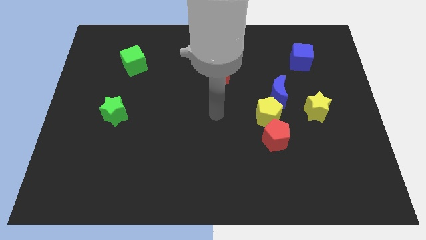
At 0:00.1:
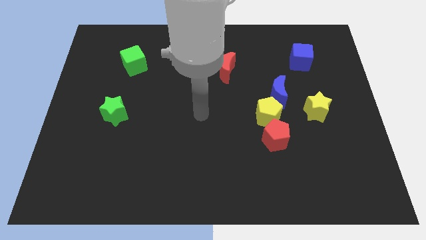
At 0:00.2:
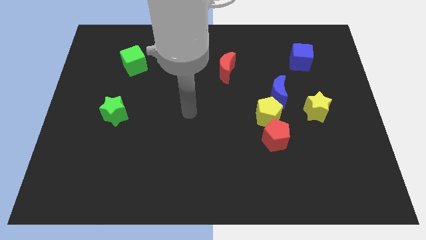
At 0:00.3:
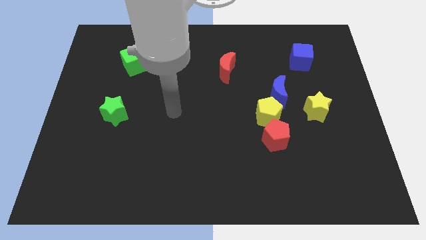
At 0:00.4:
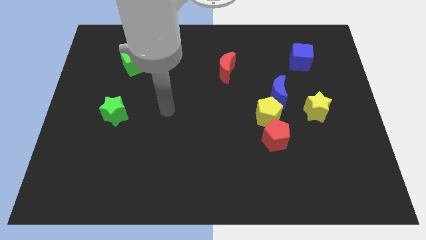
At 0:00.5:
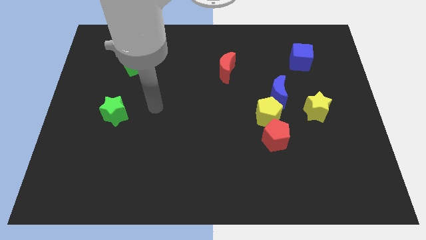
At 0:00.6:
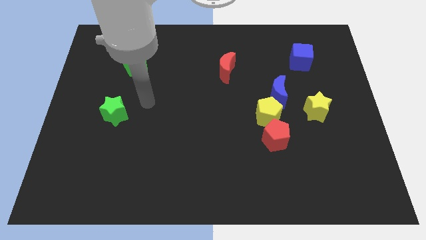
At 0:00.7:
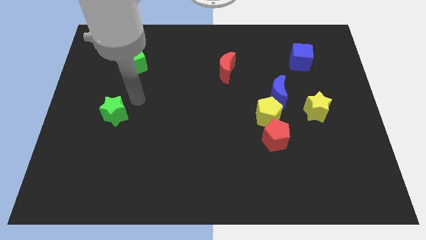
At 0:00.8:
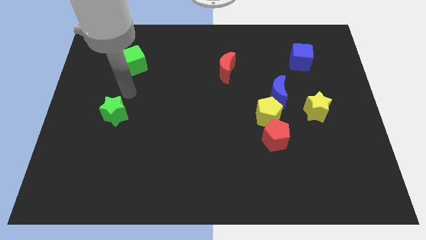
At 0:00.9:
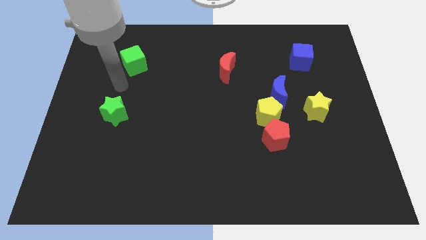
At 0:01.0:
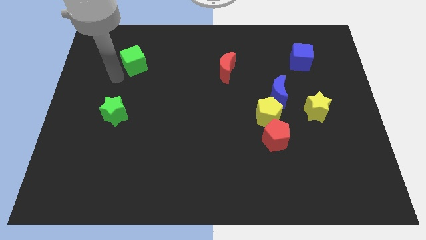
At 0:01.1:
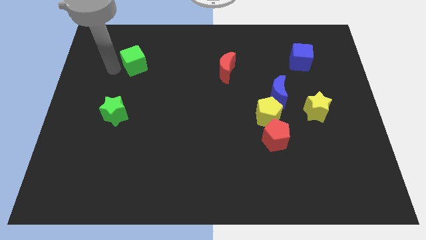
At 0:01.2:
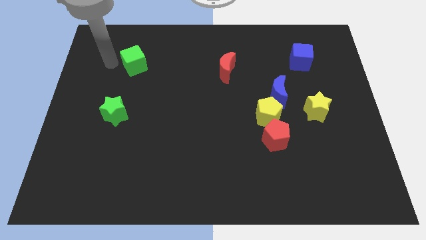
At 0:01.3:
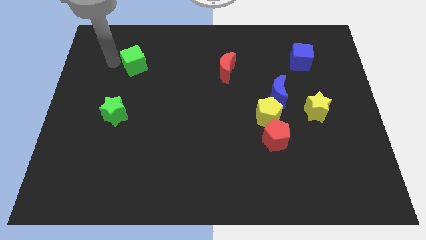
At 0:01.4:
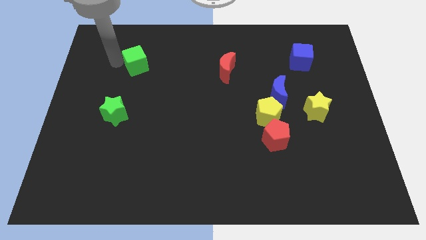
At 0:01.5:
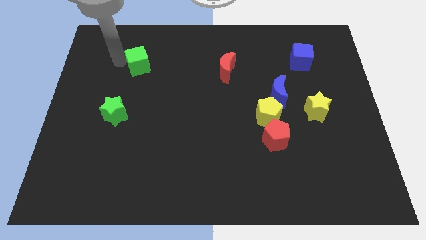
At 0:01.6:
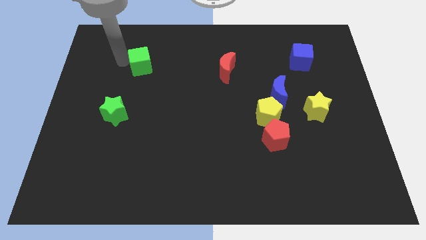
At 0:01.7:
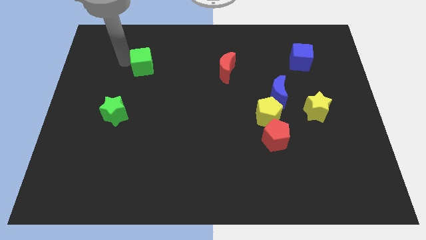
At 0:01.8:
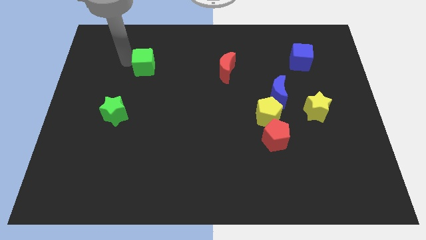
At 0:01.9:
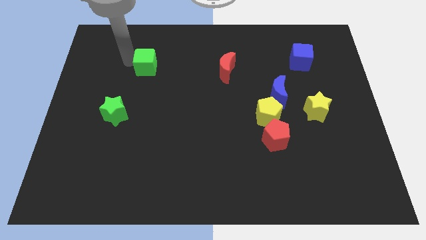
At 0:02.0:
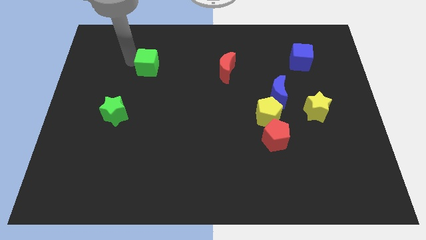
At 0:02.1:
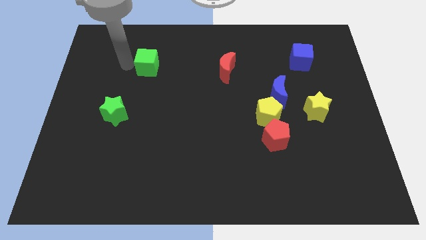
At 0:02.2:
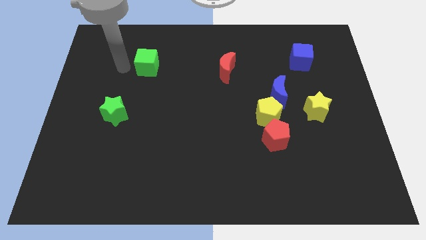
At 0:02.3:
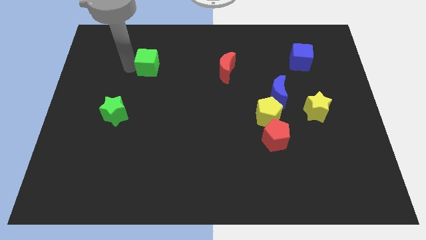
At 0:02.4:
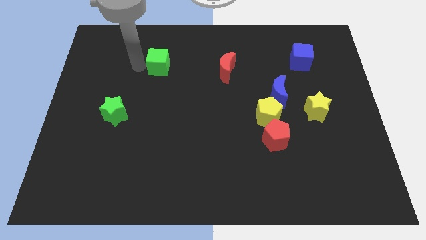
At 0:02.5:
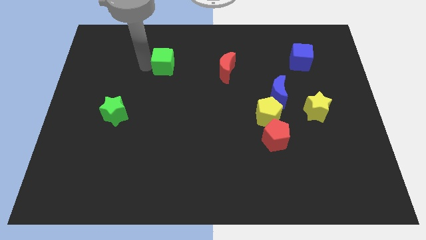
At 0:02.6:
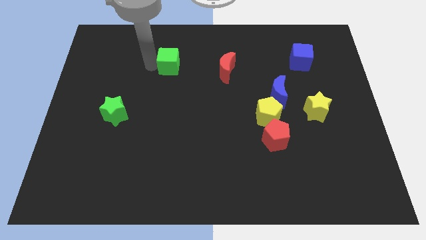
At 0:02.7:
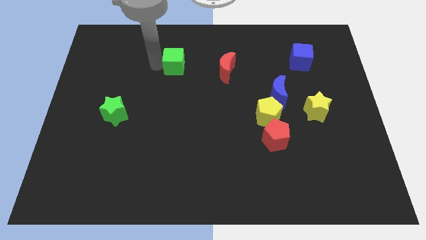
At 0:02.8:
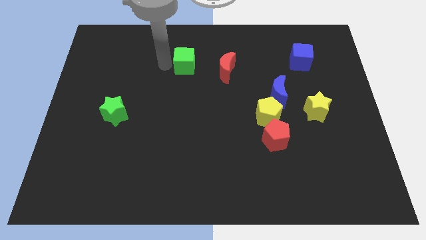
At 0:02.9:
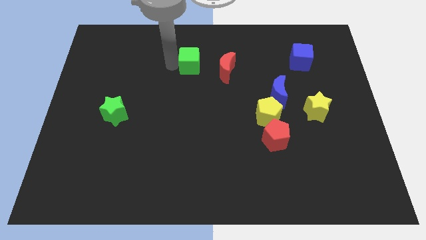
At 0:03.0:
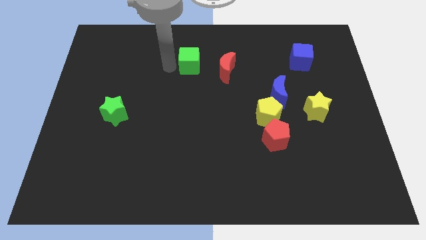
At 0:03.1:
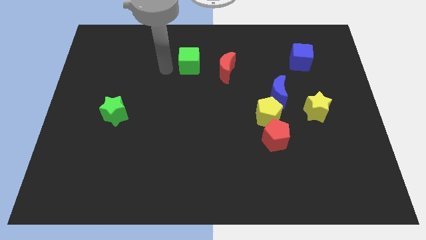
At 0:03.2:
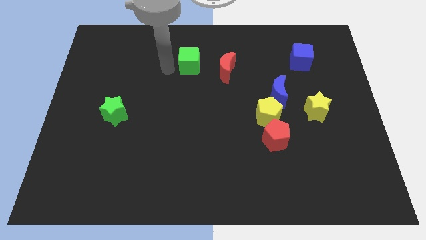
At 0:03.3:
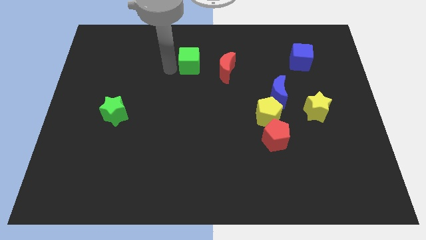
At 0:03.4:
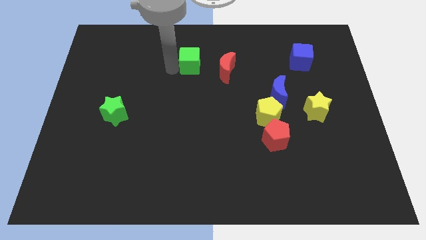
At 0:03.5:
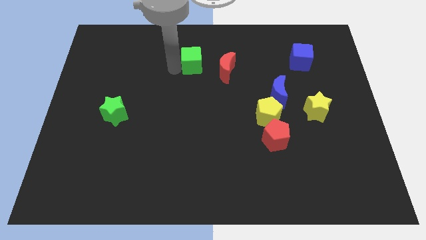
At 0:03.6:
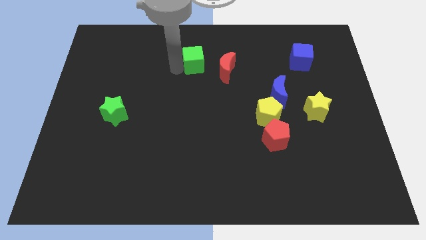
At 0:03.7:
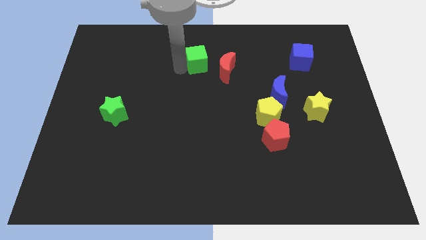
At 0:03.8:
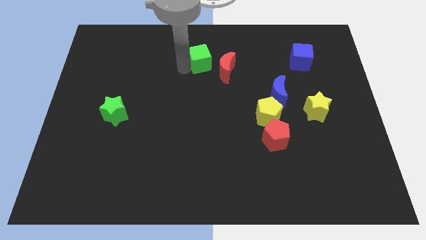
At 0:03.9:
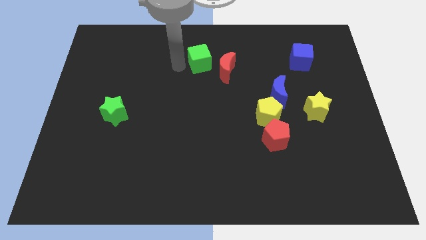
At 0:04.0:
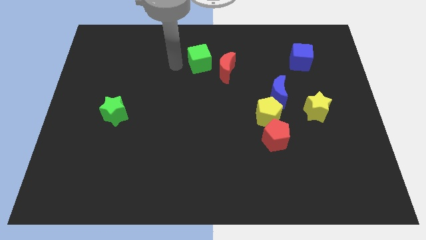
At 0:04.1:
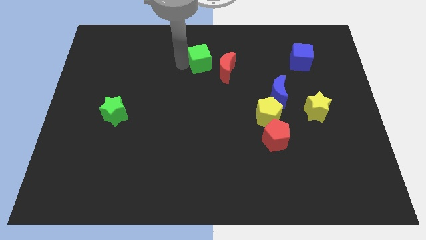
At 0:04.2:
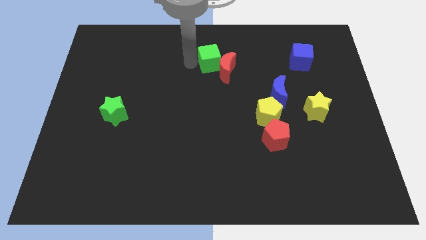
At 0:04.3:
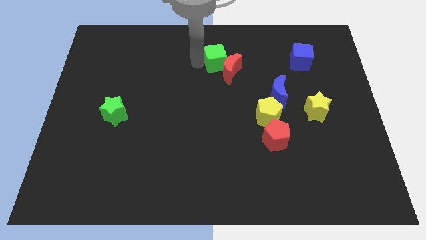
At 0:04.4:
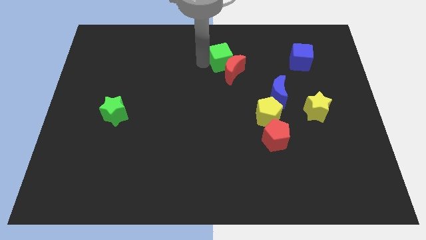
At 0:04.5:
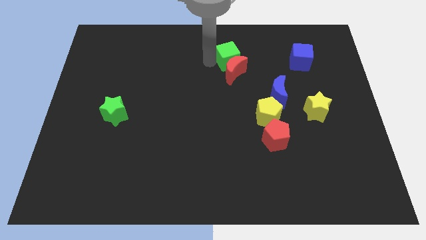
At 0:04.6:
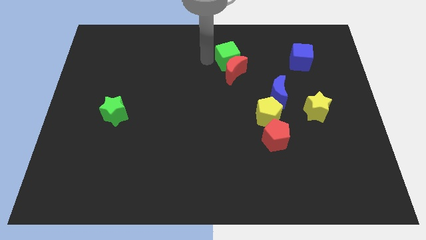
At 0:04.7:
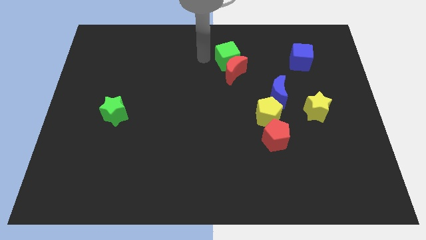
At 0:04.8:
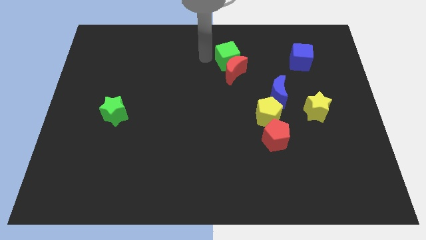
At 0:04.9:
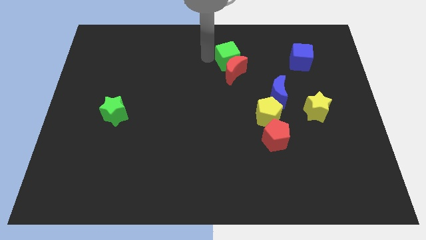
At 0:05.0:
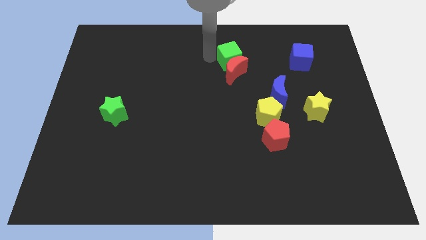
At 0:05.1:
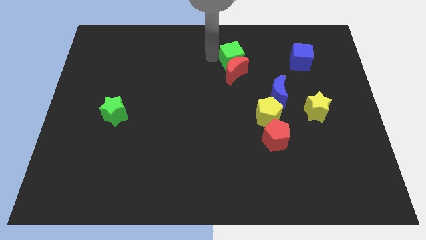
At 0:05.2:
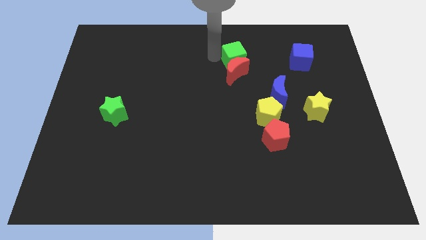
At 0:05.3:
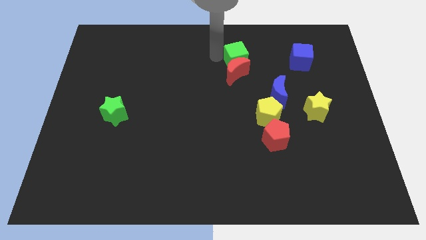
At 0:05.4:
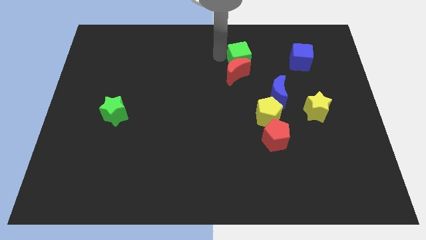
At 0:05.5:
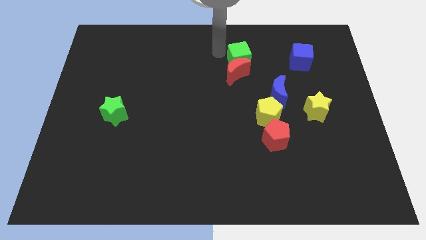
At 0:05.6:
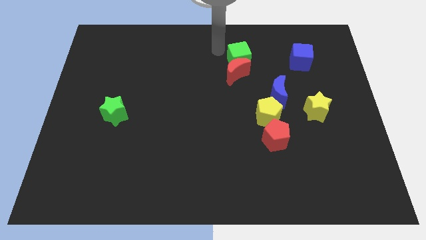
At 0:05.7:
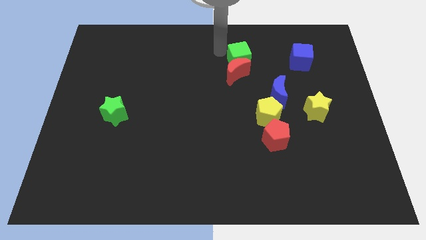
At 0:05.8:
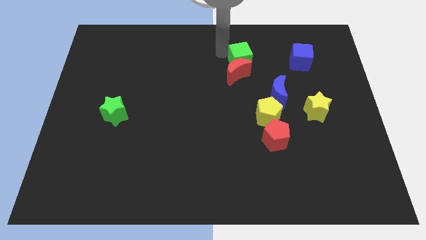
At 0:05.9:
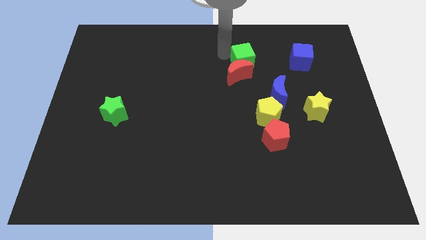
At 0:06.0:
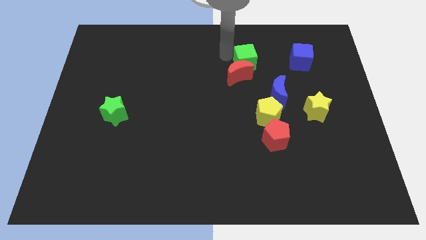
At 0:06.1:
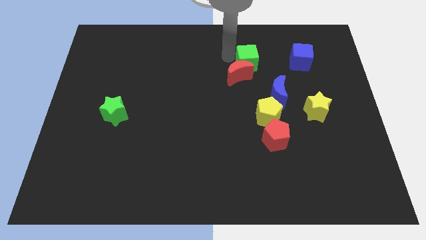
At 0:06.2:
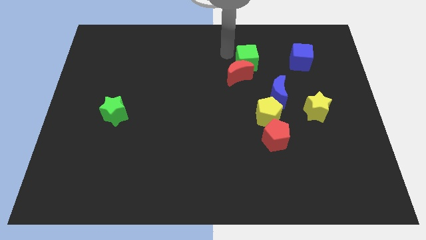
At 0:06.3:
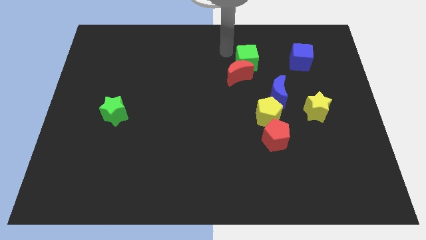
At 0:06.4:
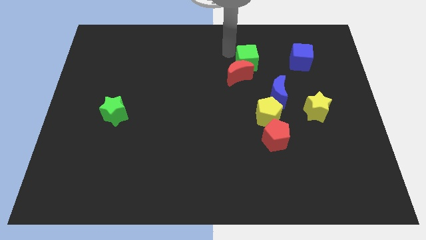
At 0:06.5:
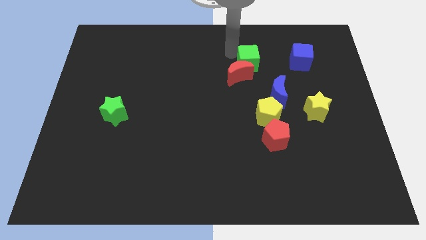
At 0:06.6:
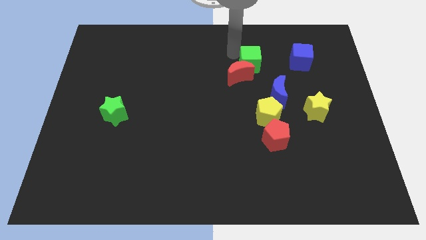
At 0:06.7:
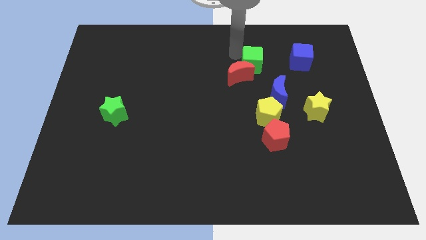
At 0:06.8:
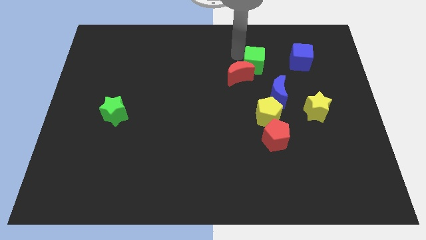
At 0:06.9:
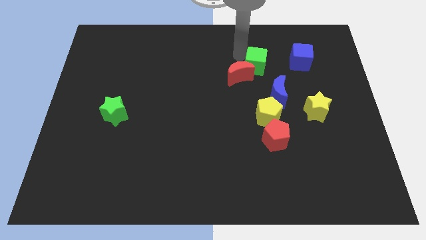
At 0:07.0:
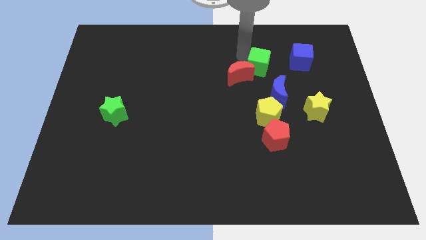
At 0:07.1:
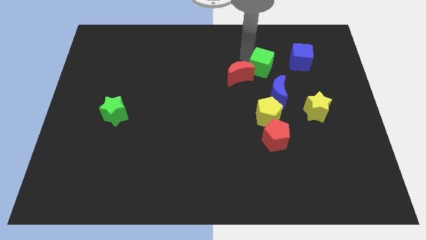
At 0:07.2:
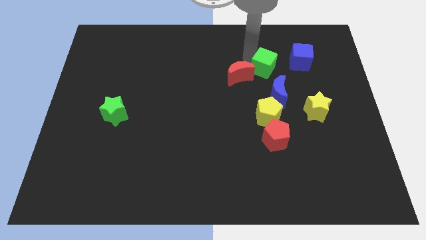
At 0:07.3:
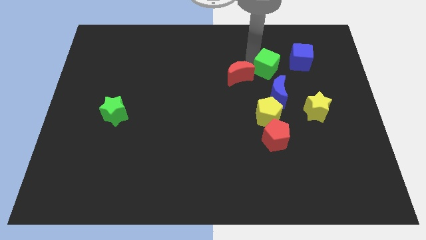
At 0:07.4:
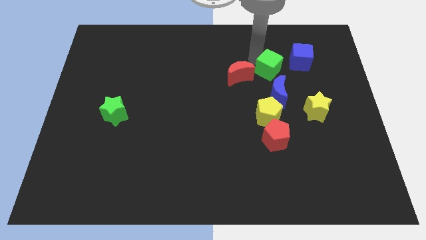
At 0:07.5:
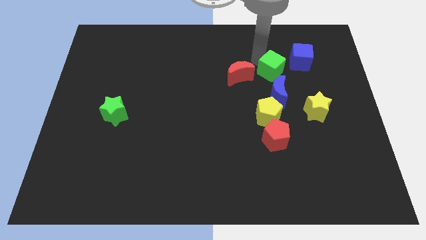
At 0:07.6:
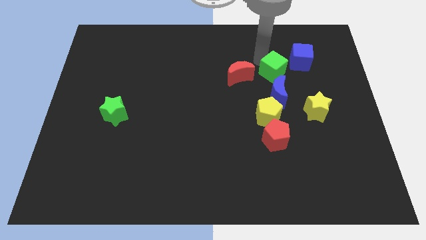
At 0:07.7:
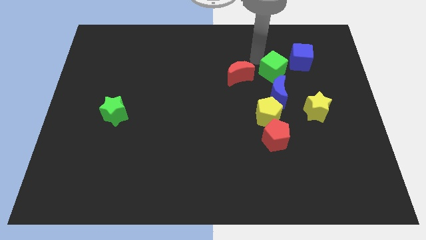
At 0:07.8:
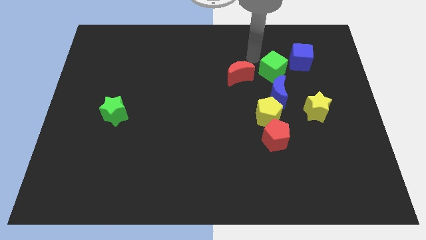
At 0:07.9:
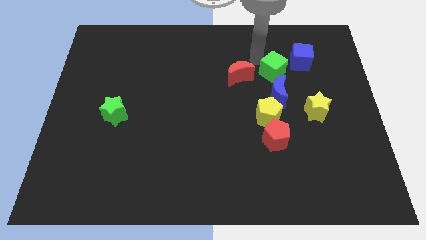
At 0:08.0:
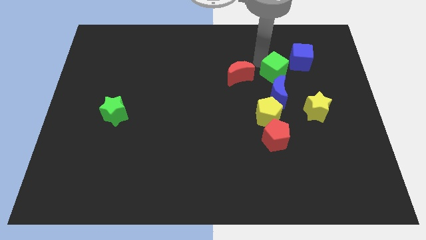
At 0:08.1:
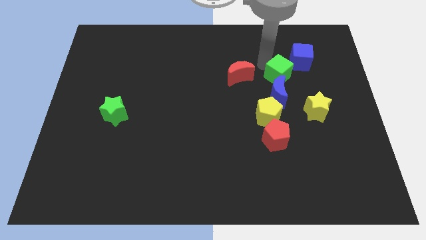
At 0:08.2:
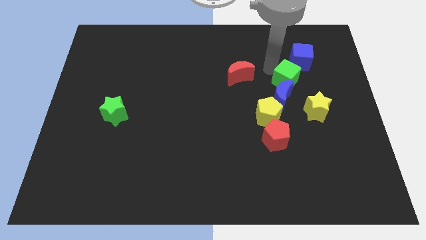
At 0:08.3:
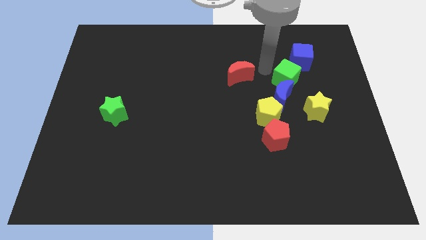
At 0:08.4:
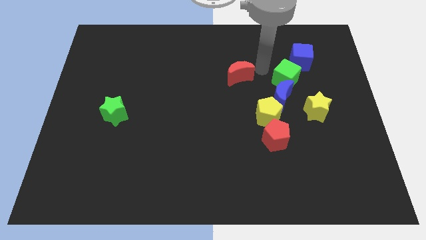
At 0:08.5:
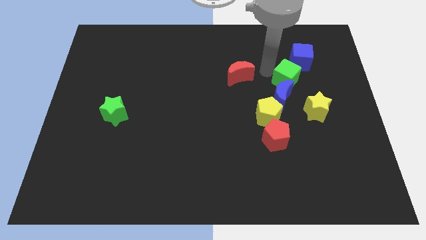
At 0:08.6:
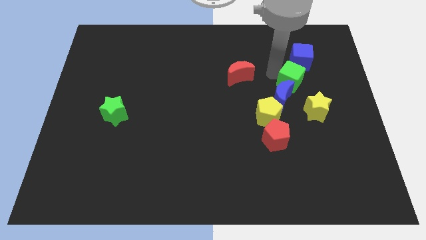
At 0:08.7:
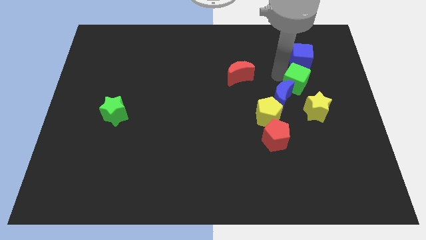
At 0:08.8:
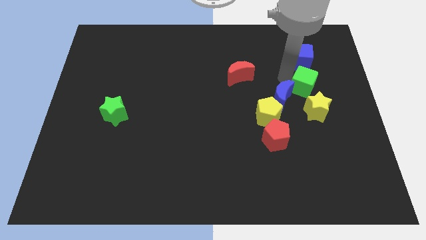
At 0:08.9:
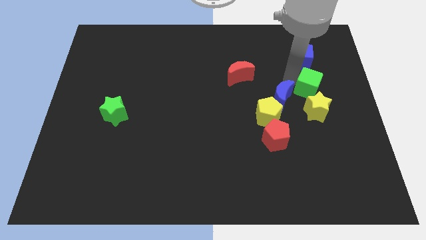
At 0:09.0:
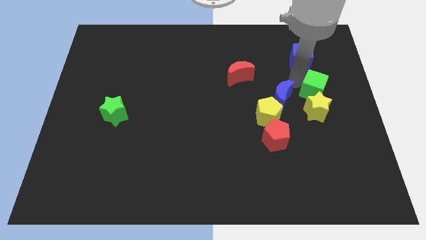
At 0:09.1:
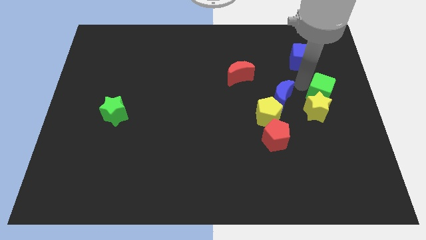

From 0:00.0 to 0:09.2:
slide the green cube to the center right
